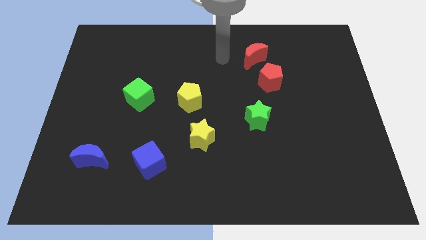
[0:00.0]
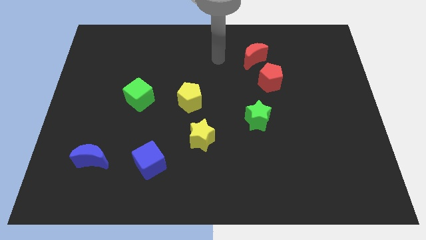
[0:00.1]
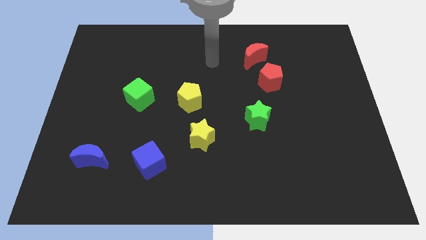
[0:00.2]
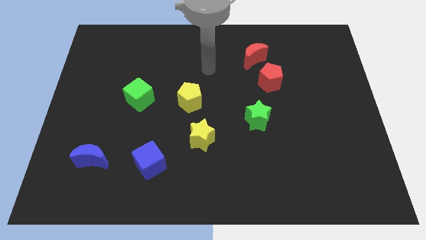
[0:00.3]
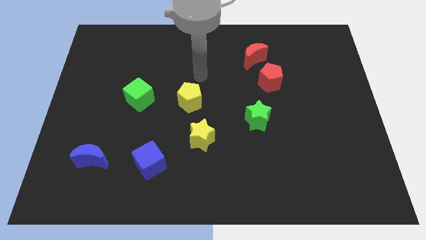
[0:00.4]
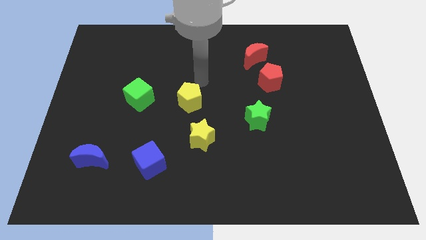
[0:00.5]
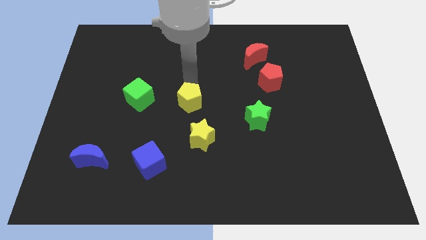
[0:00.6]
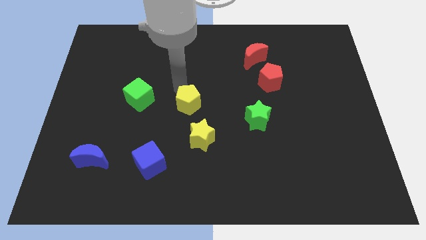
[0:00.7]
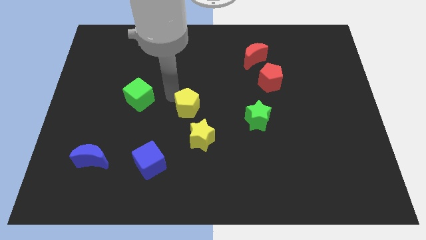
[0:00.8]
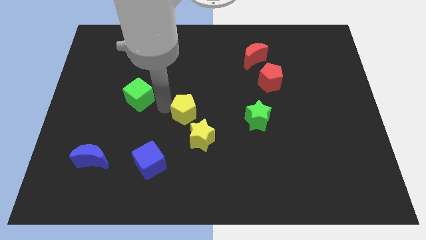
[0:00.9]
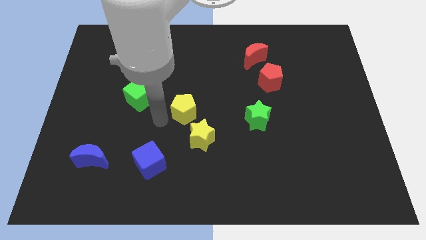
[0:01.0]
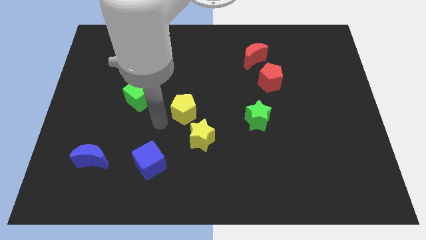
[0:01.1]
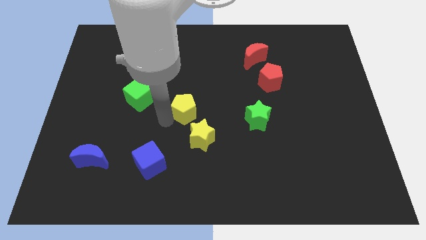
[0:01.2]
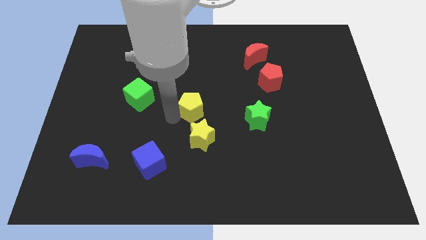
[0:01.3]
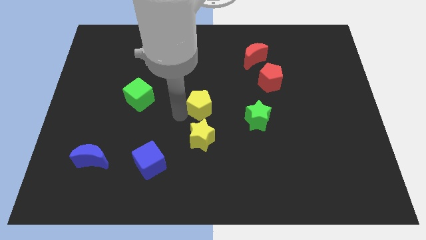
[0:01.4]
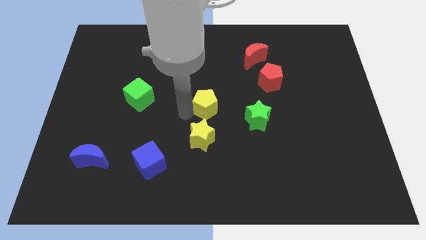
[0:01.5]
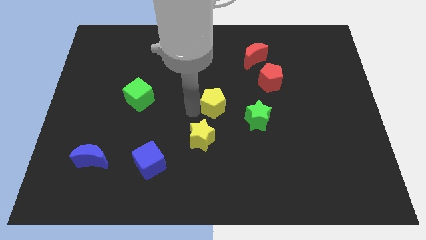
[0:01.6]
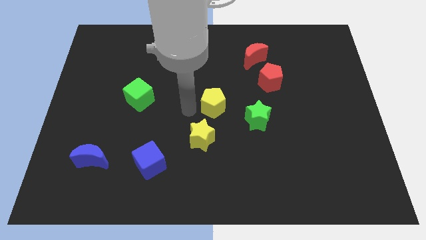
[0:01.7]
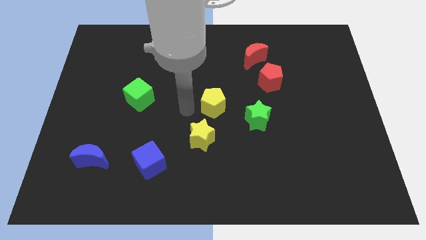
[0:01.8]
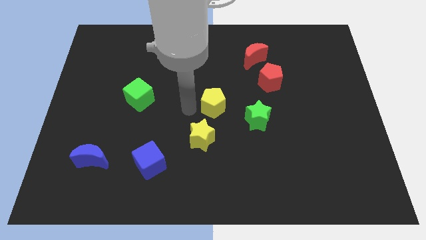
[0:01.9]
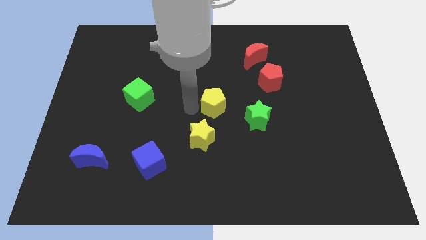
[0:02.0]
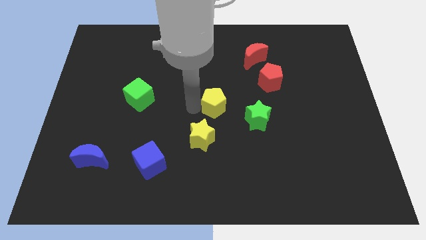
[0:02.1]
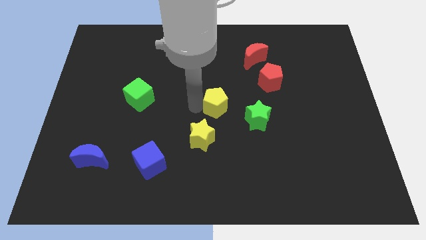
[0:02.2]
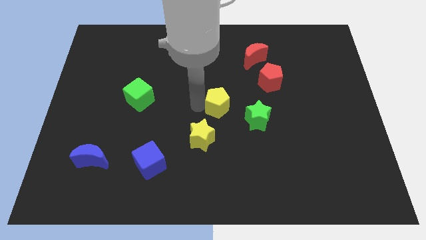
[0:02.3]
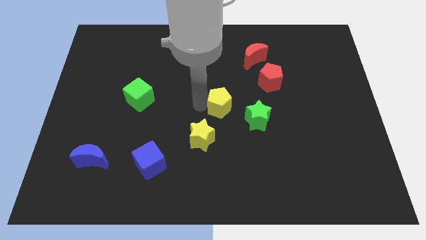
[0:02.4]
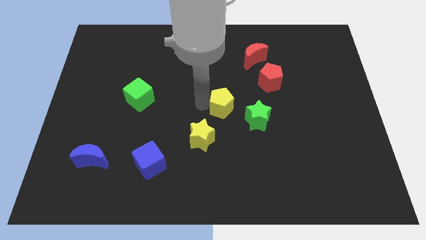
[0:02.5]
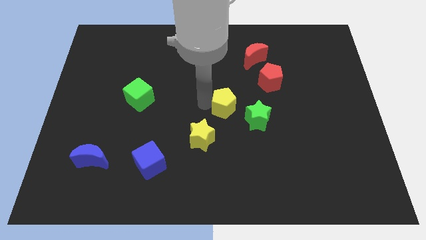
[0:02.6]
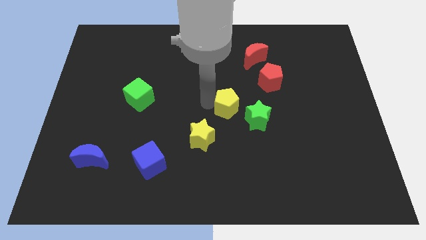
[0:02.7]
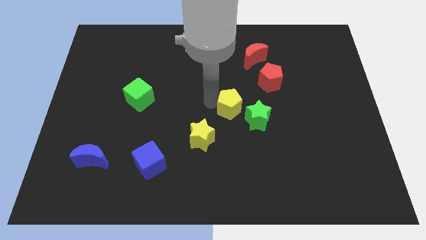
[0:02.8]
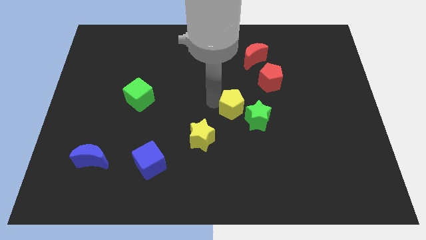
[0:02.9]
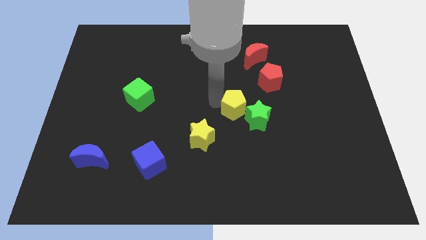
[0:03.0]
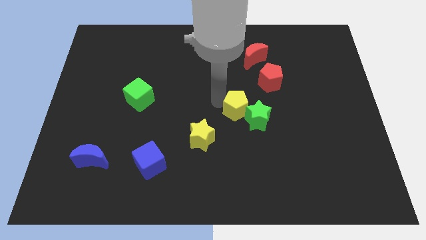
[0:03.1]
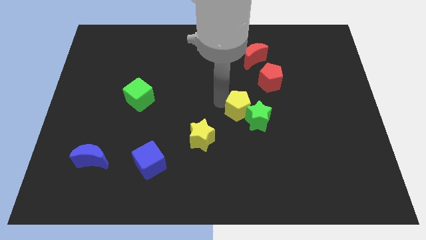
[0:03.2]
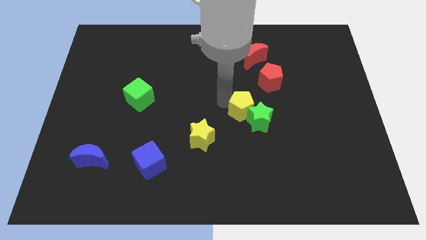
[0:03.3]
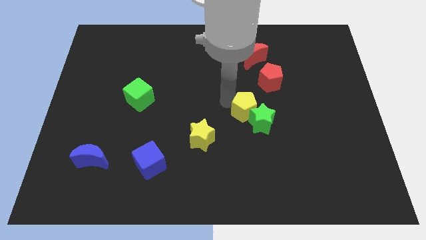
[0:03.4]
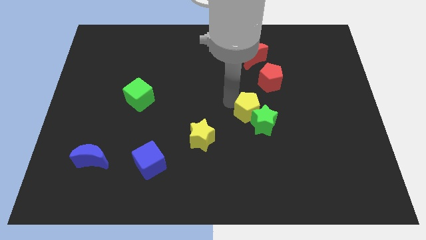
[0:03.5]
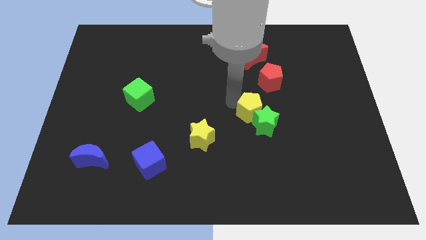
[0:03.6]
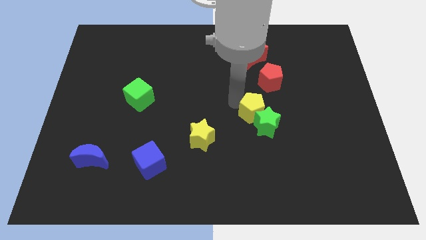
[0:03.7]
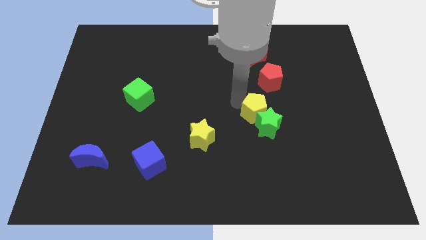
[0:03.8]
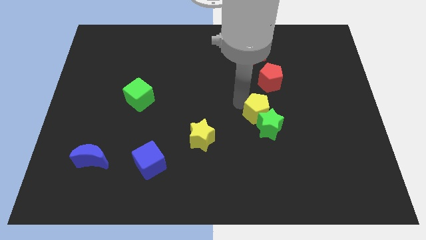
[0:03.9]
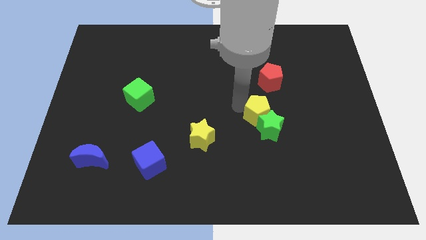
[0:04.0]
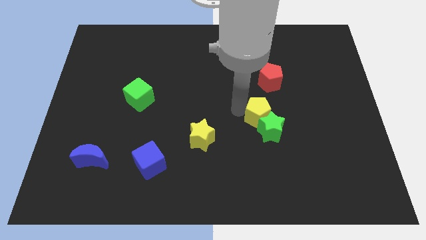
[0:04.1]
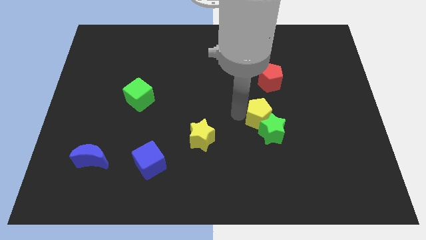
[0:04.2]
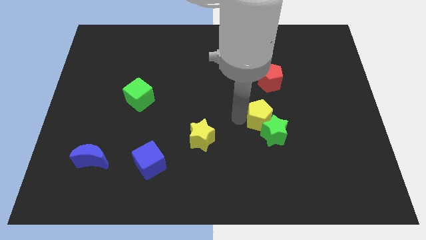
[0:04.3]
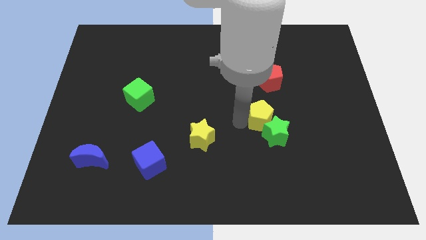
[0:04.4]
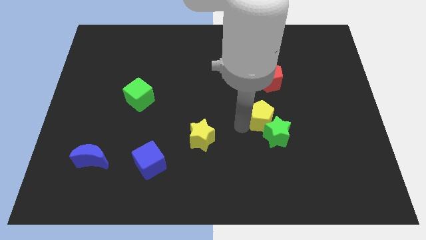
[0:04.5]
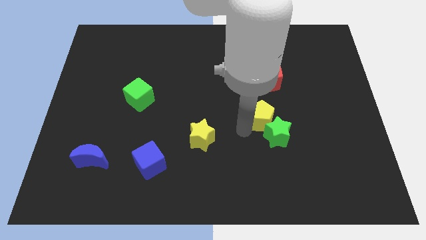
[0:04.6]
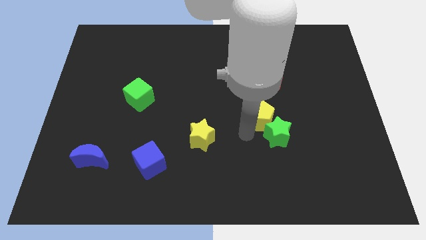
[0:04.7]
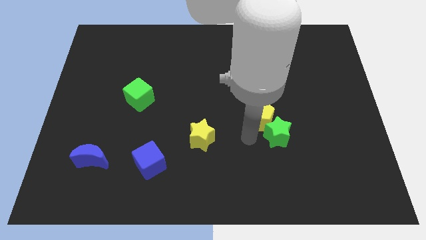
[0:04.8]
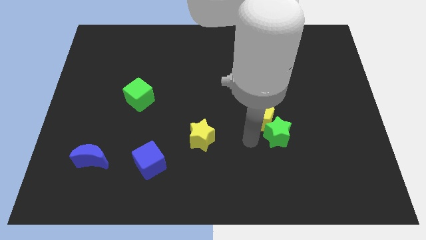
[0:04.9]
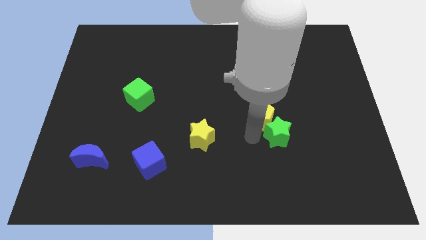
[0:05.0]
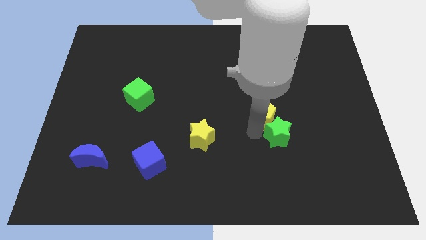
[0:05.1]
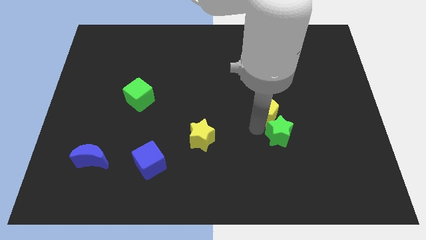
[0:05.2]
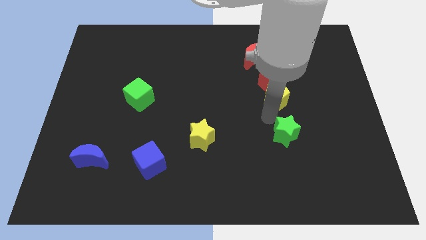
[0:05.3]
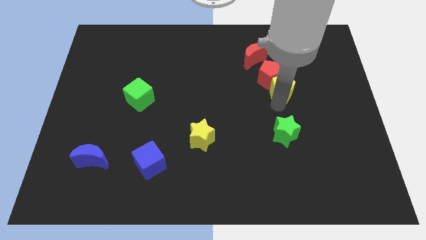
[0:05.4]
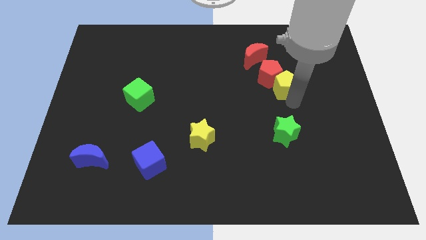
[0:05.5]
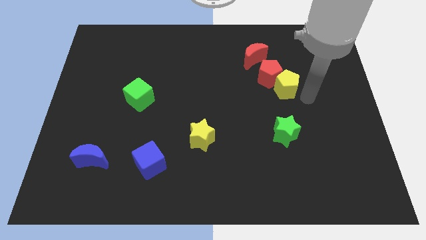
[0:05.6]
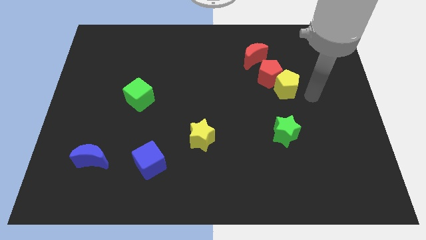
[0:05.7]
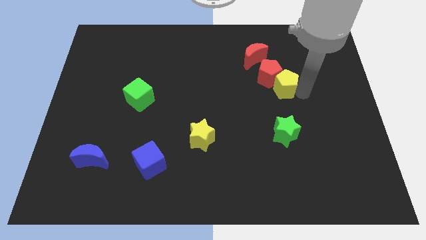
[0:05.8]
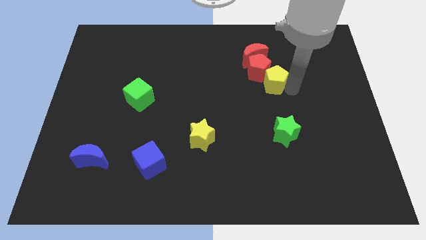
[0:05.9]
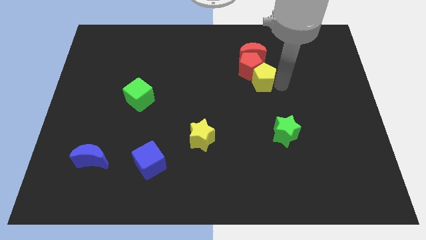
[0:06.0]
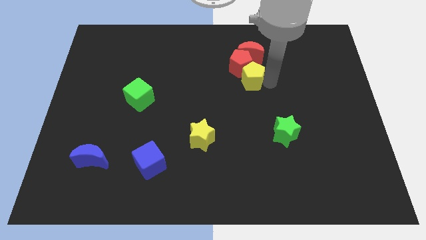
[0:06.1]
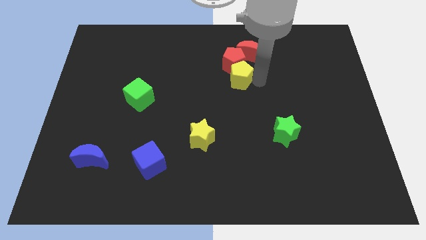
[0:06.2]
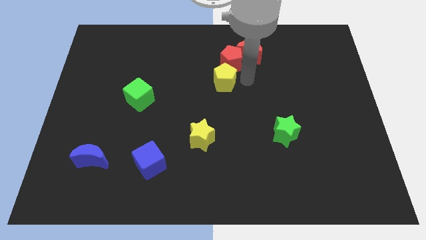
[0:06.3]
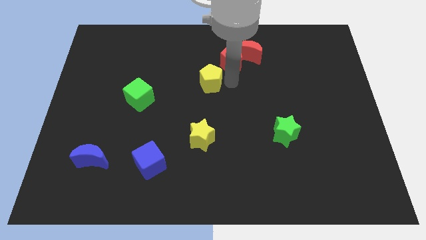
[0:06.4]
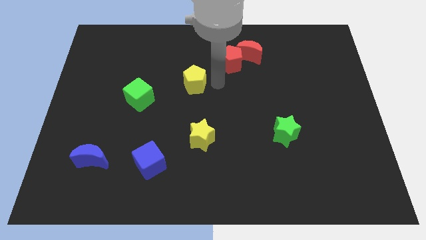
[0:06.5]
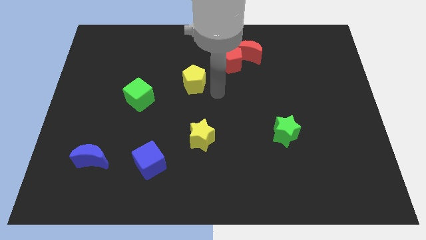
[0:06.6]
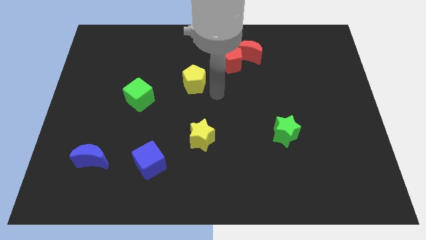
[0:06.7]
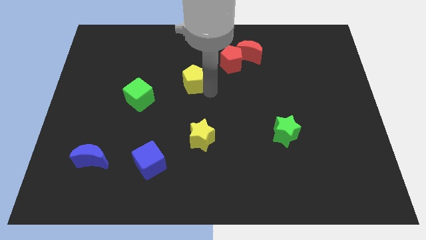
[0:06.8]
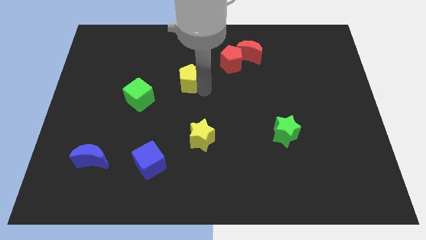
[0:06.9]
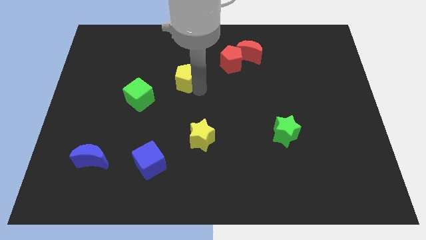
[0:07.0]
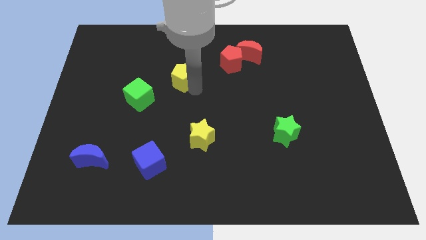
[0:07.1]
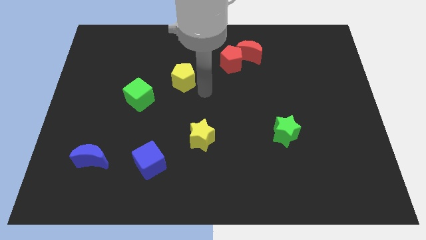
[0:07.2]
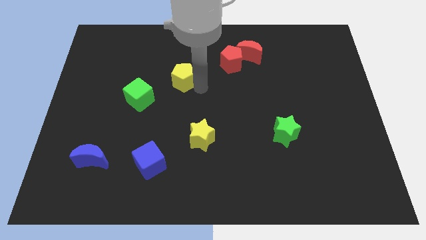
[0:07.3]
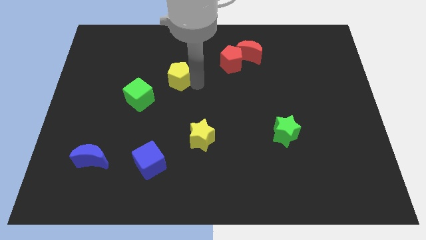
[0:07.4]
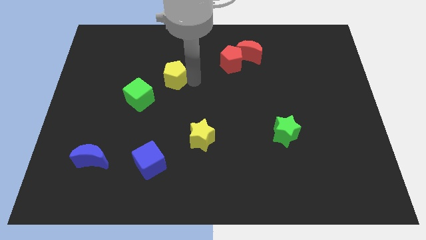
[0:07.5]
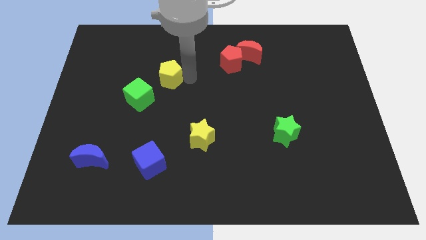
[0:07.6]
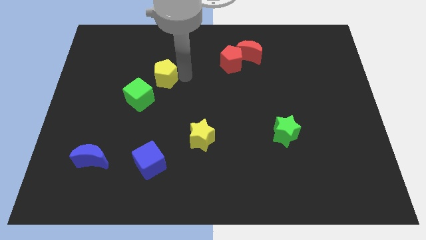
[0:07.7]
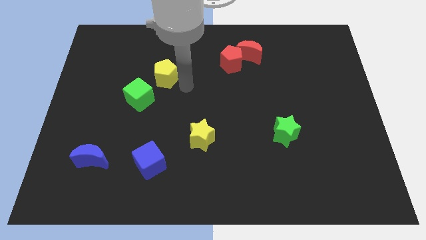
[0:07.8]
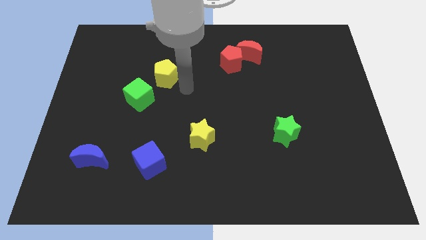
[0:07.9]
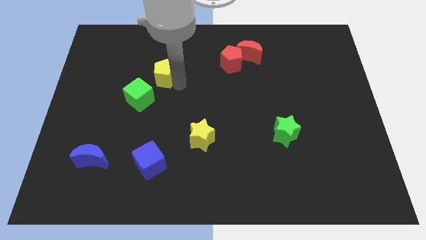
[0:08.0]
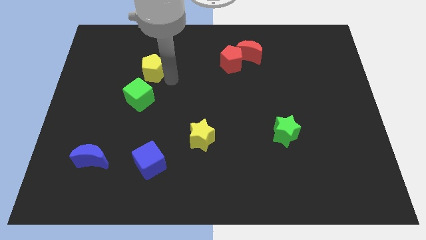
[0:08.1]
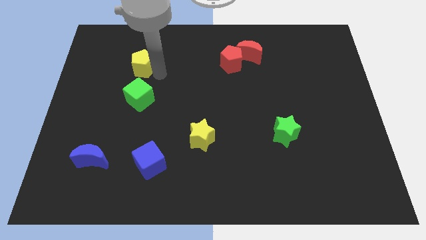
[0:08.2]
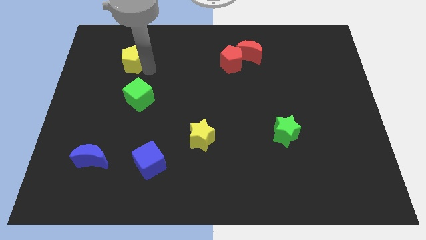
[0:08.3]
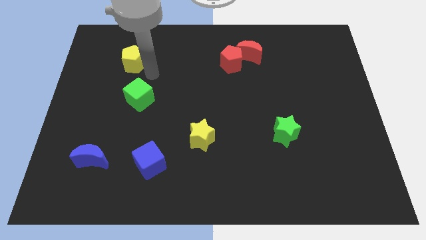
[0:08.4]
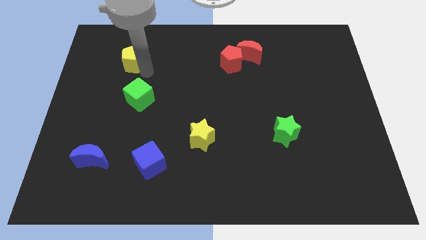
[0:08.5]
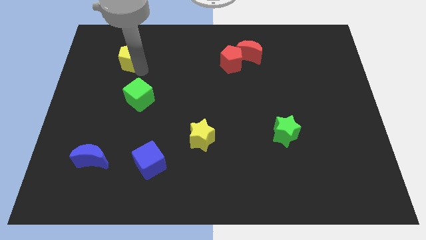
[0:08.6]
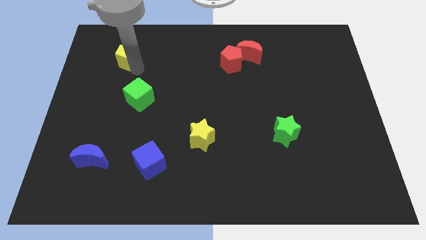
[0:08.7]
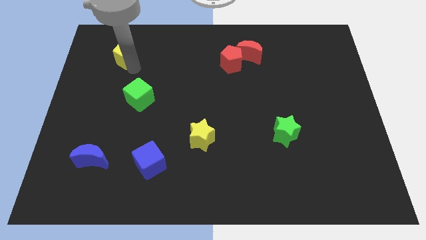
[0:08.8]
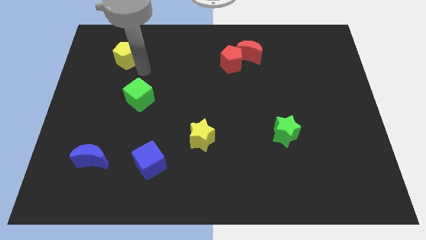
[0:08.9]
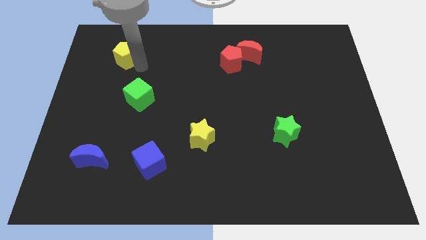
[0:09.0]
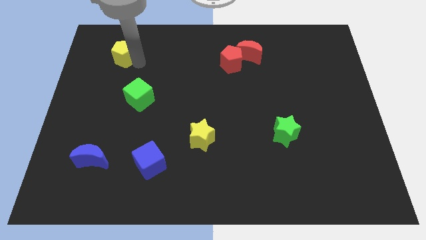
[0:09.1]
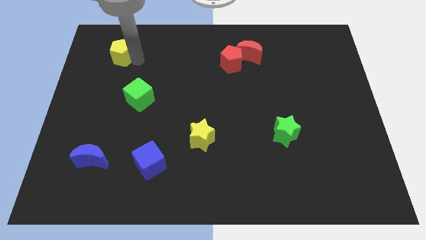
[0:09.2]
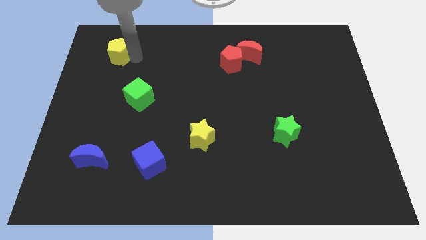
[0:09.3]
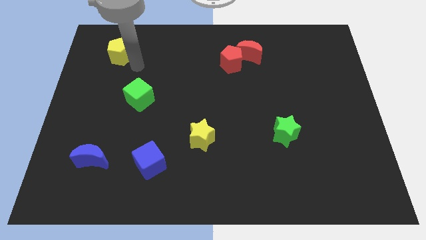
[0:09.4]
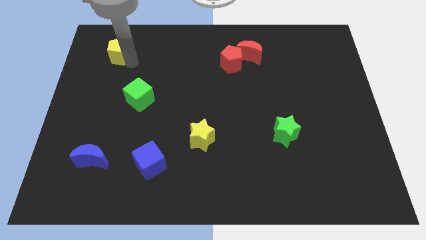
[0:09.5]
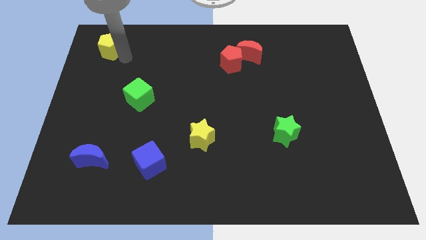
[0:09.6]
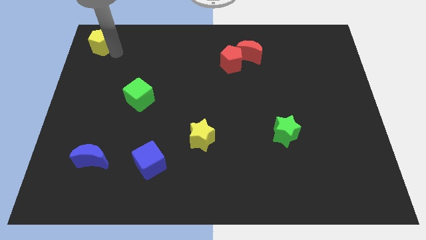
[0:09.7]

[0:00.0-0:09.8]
put the yellow pentagon to the top left of the board
